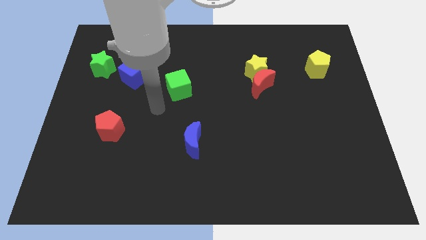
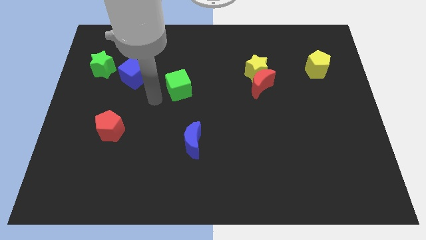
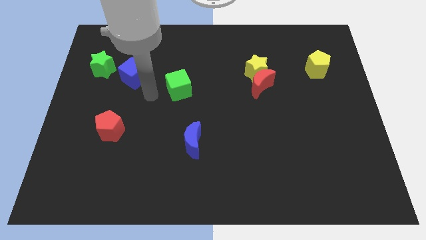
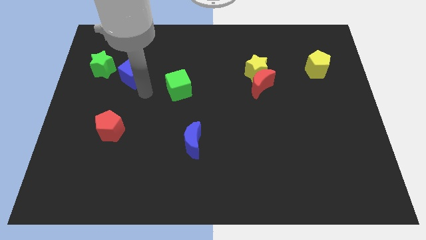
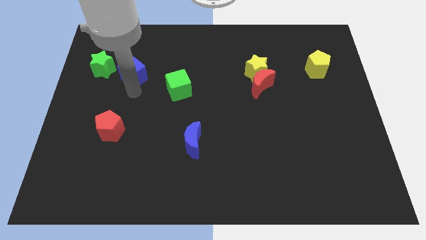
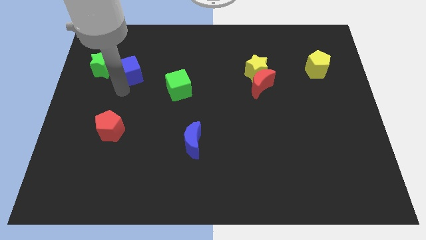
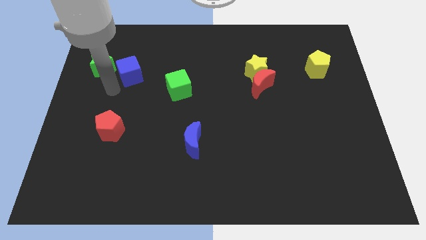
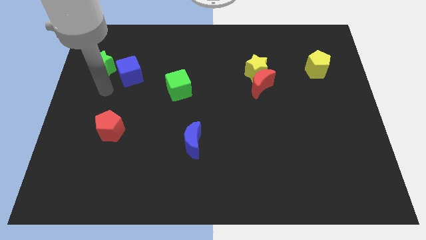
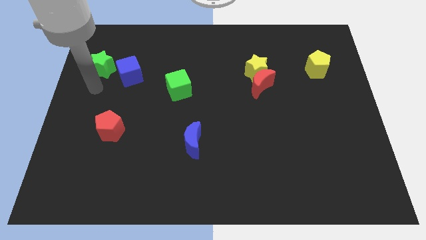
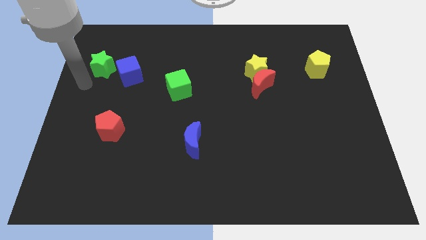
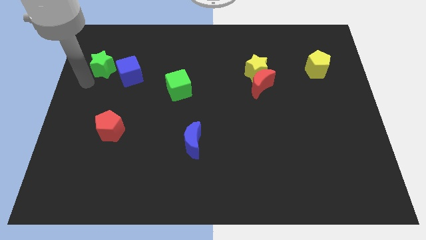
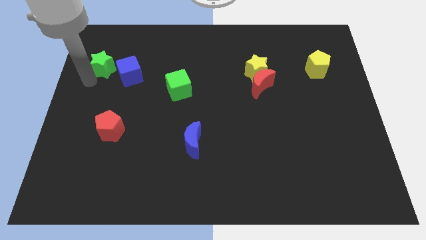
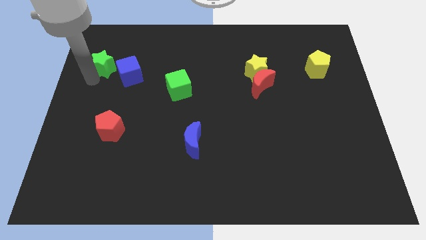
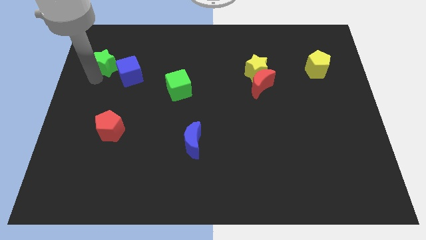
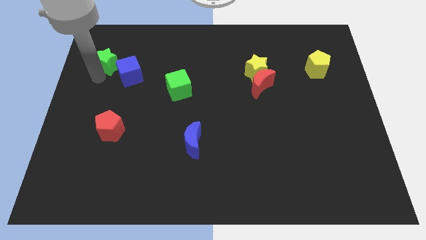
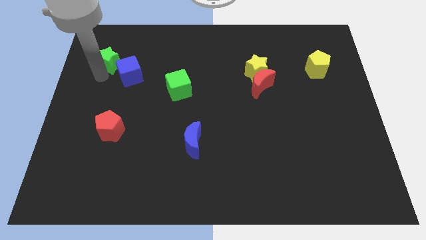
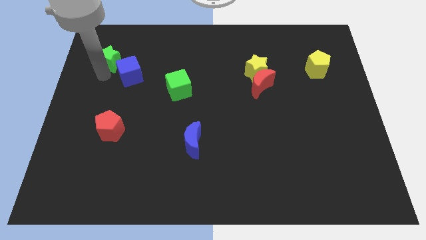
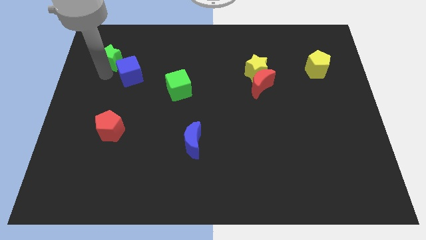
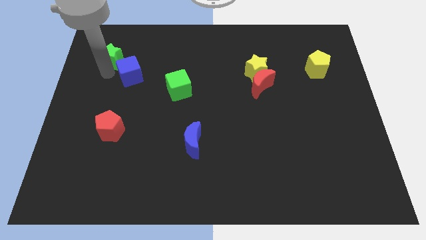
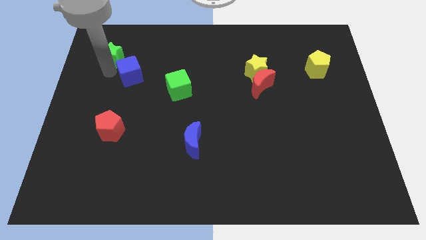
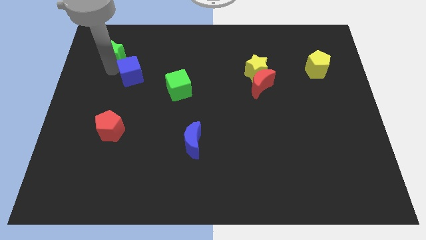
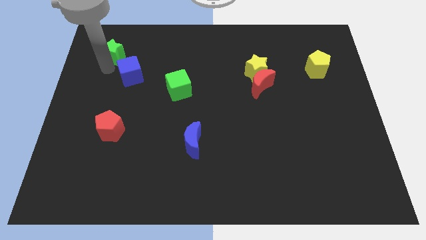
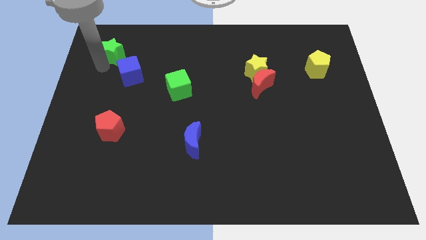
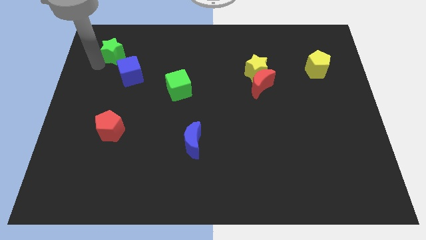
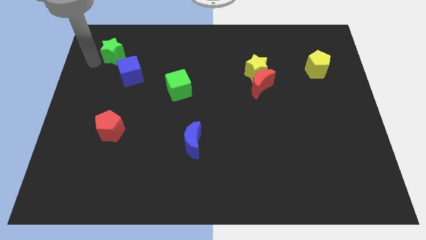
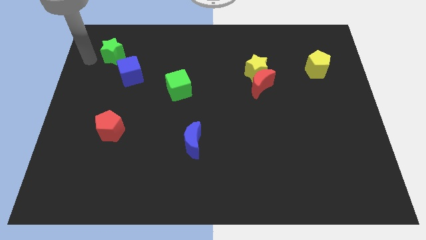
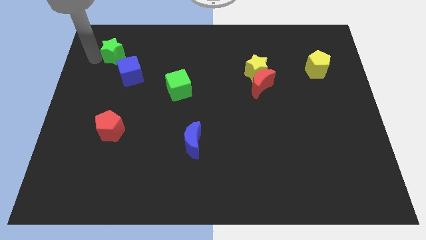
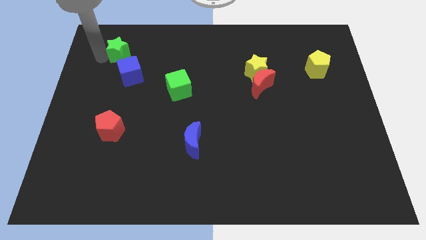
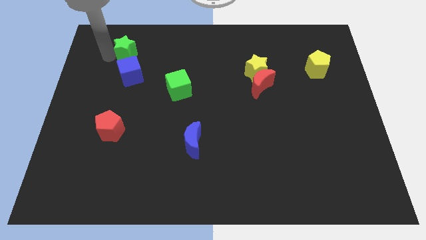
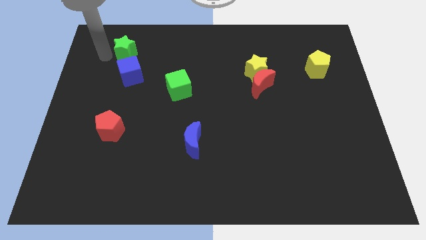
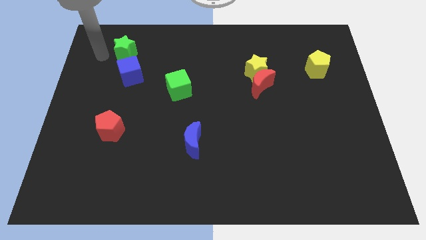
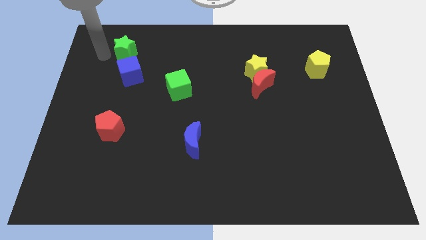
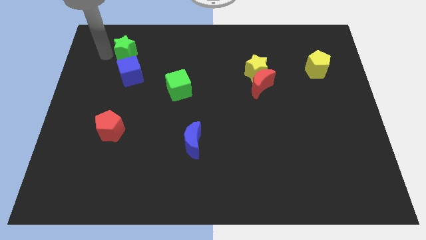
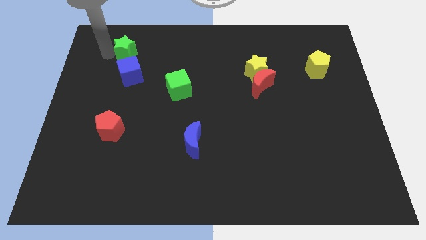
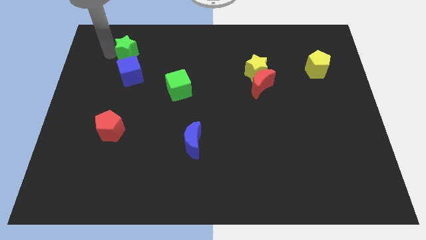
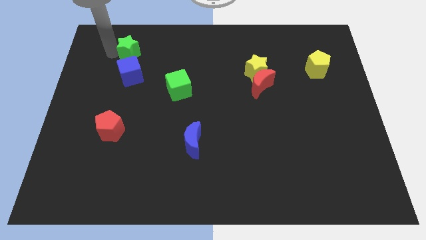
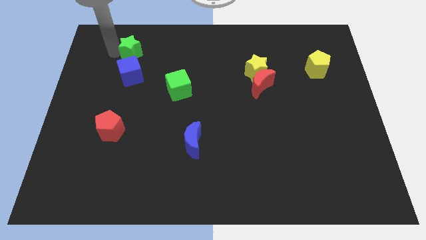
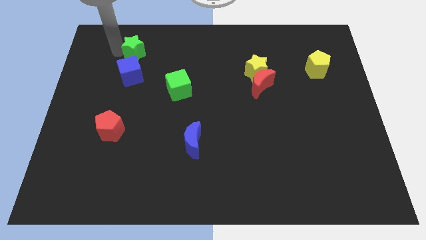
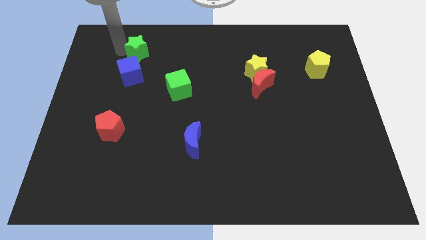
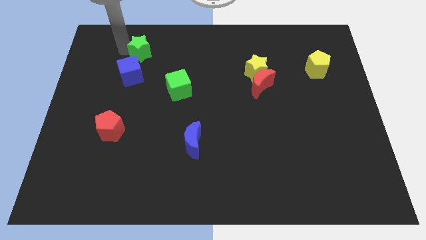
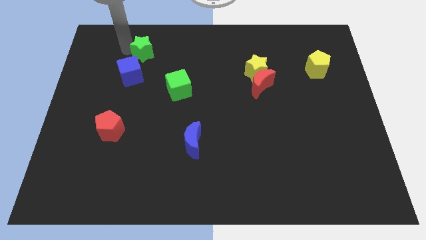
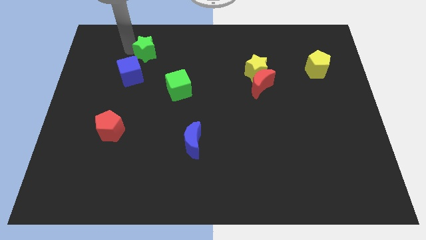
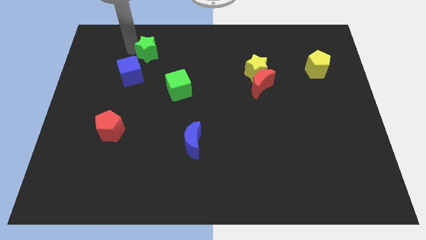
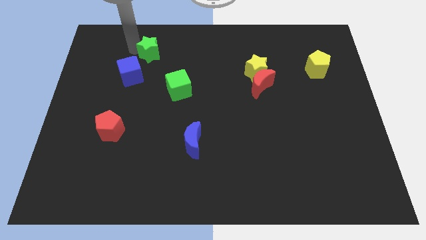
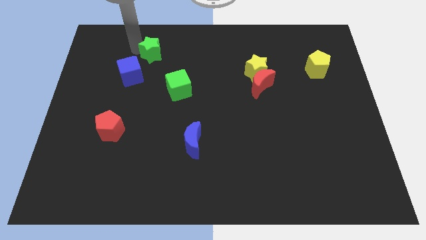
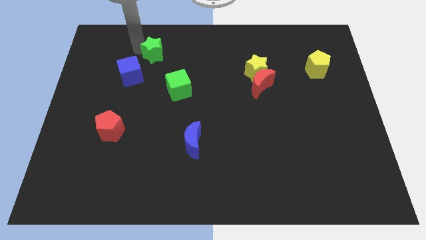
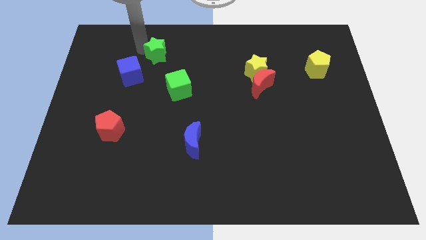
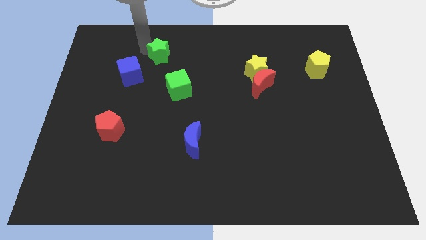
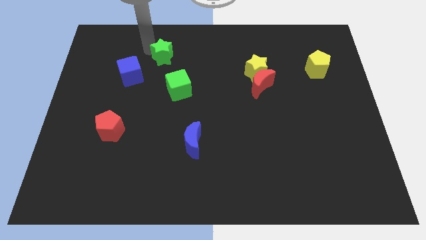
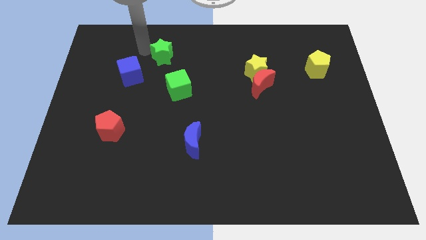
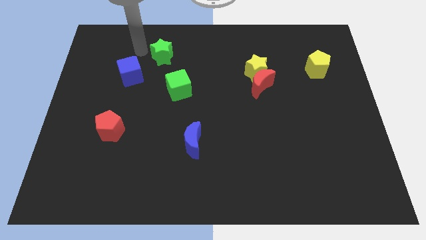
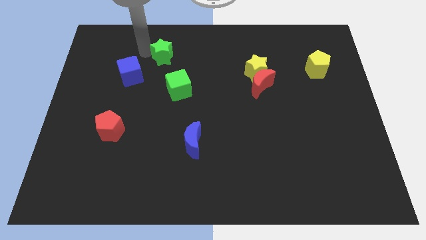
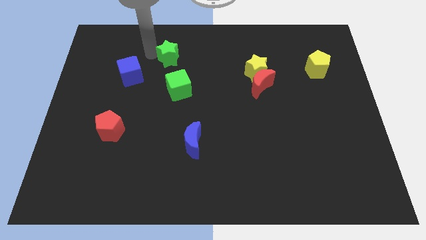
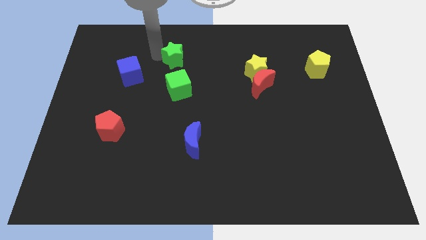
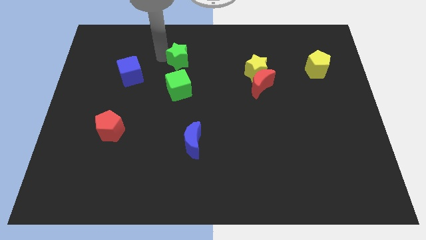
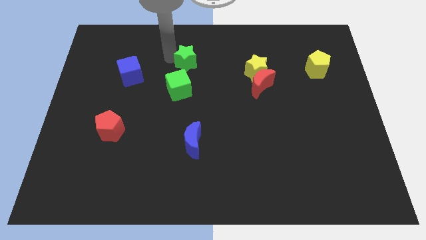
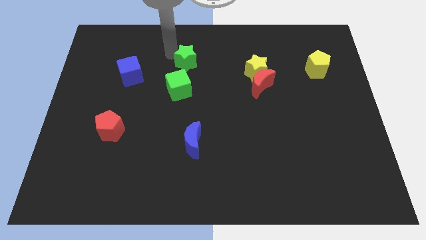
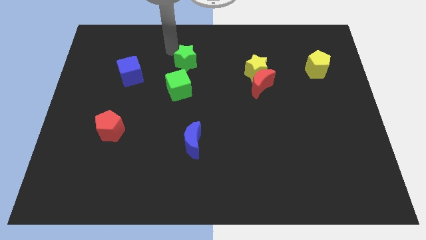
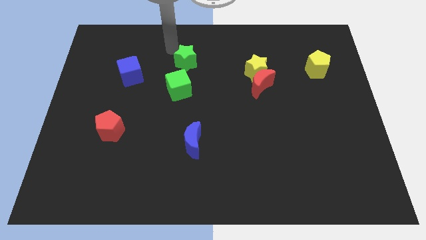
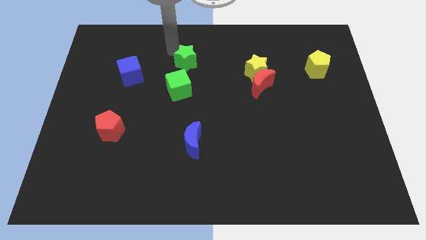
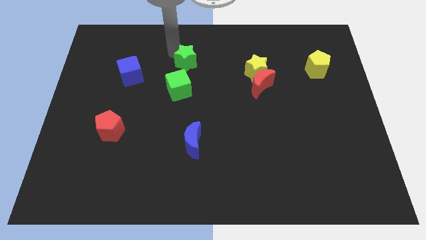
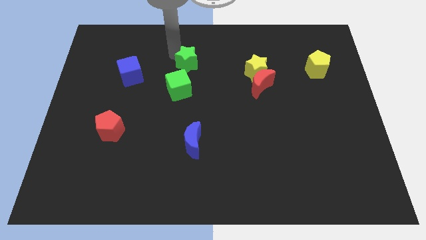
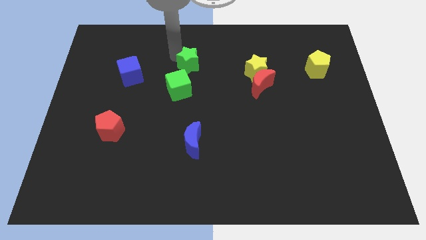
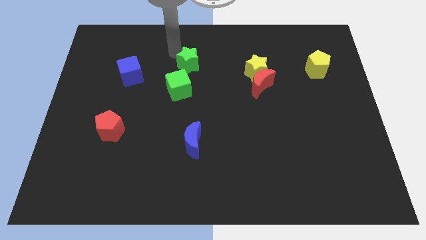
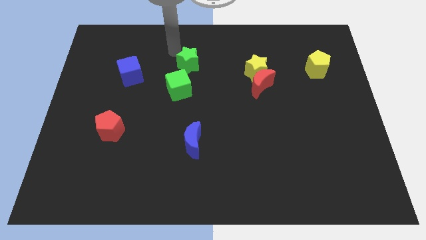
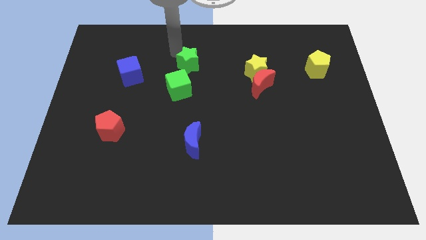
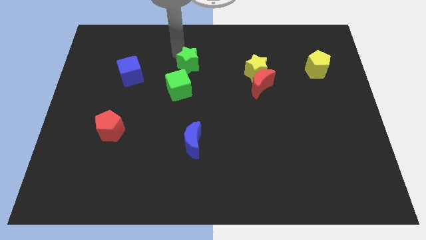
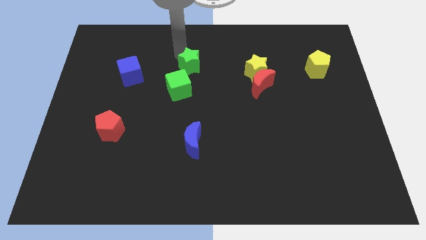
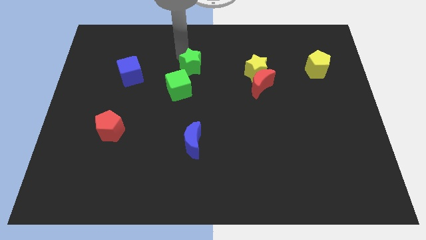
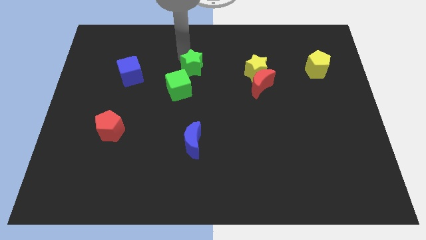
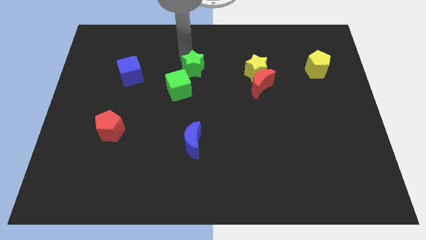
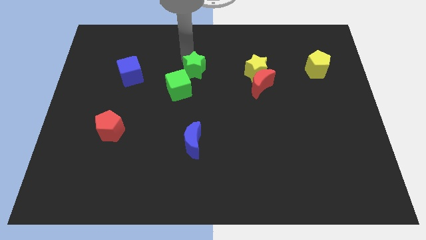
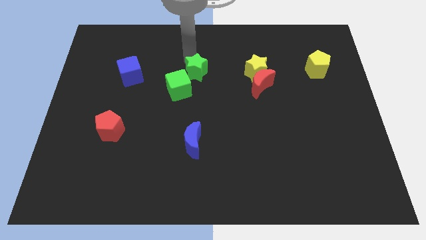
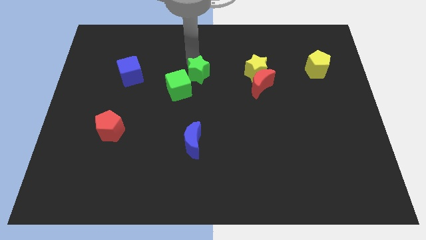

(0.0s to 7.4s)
slide the green star to the right of the green cube

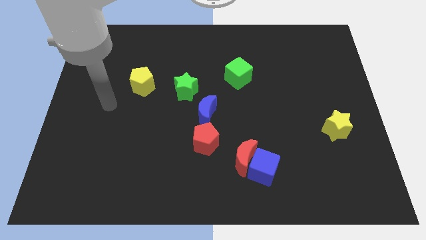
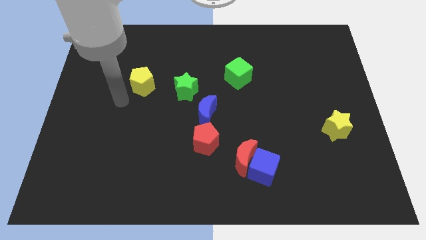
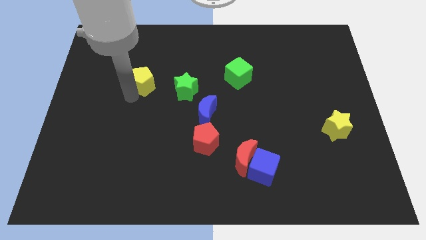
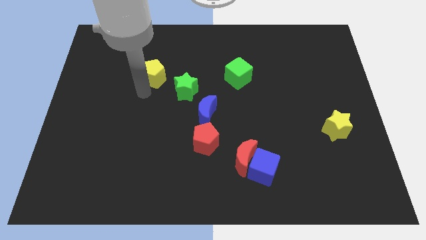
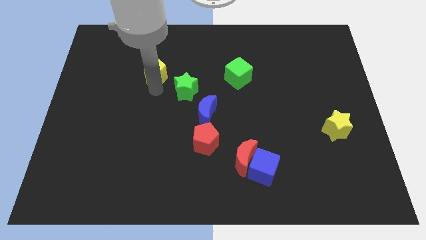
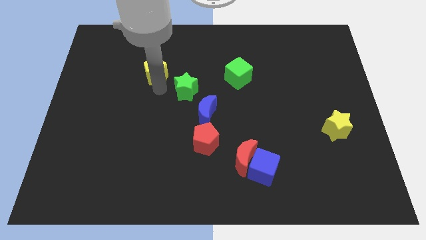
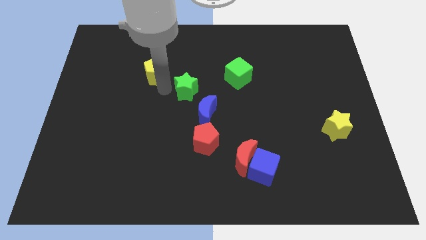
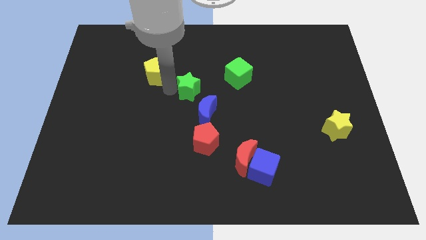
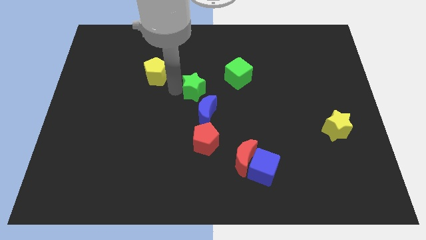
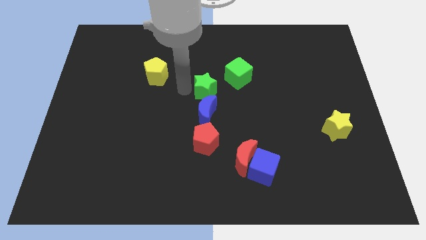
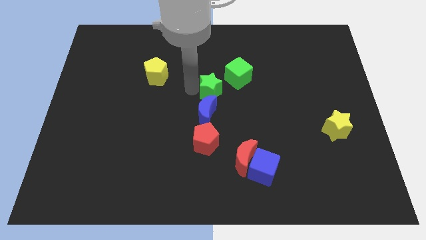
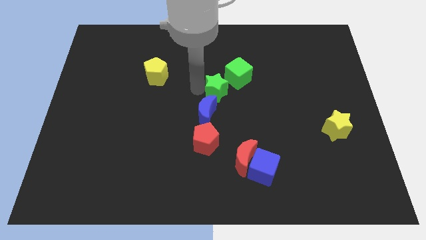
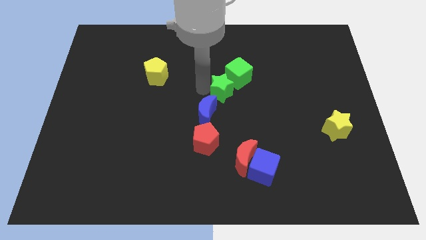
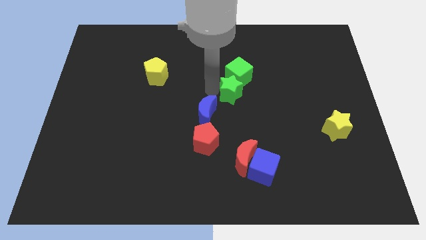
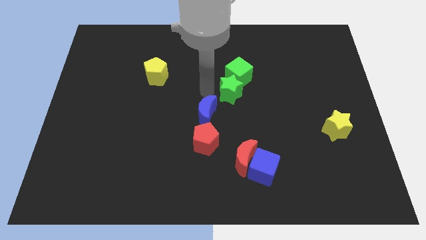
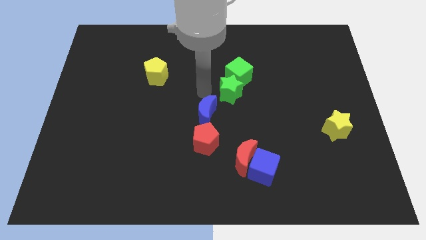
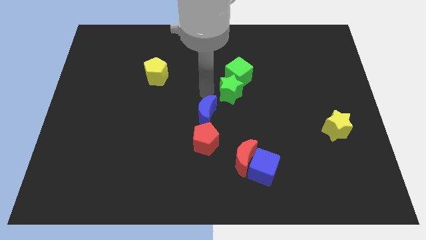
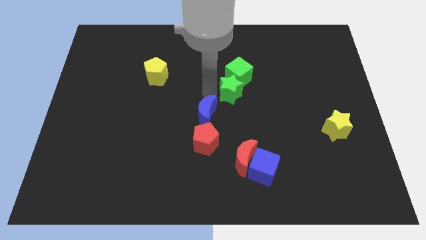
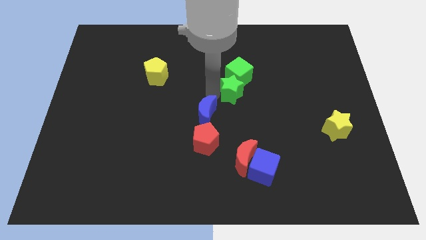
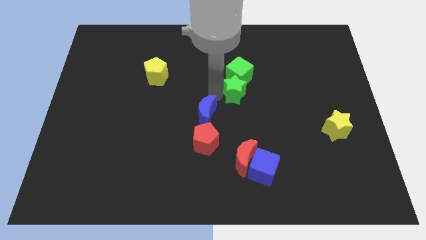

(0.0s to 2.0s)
put the green star to the bottom right of the green cube
